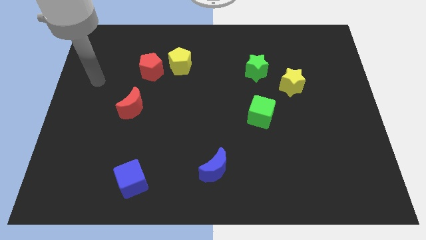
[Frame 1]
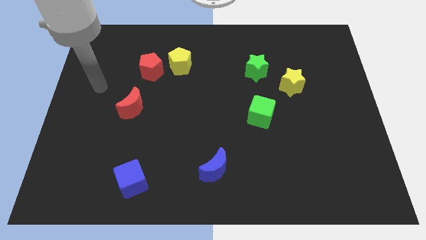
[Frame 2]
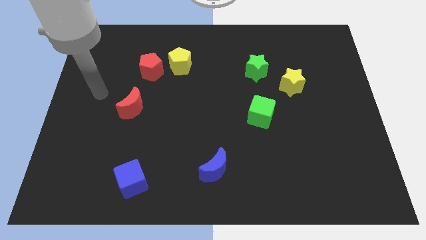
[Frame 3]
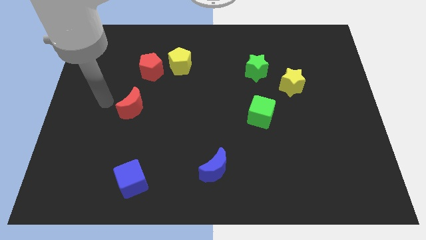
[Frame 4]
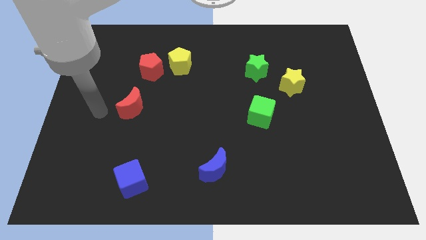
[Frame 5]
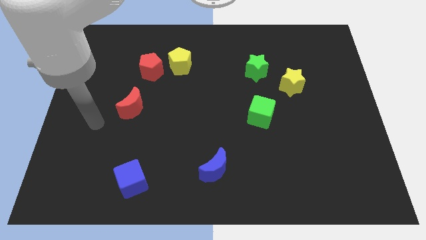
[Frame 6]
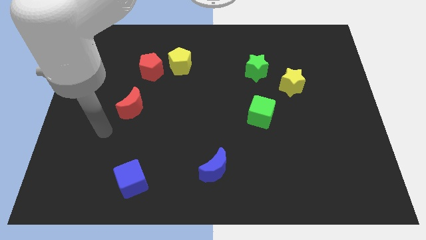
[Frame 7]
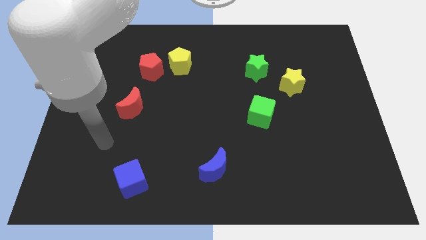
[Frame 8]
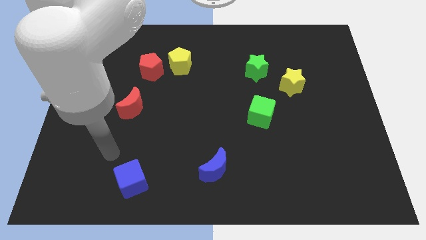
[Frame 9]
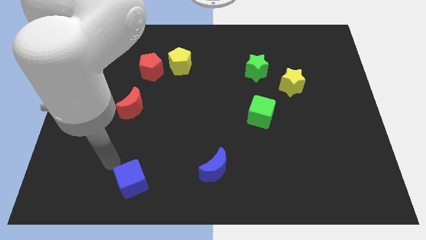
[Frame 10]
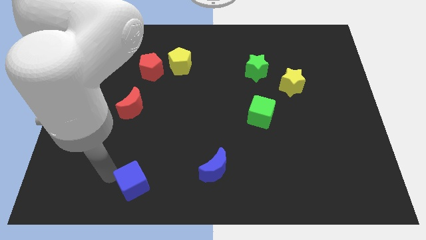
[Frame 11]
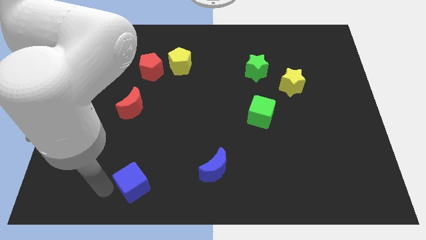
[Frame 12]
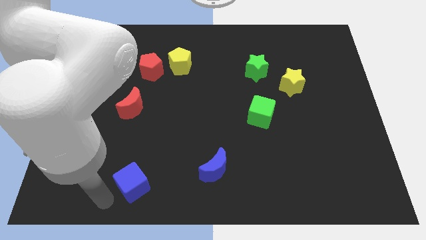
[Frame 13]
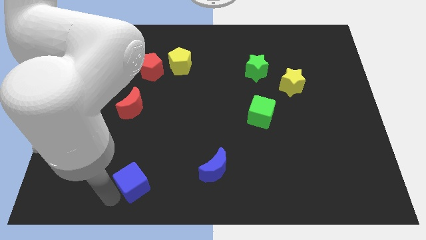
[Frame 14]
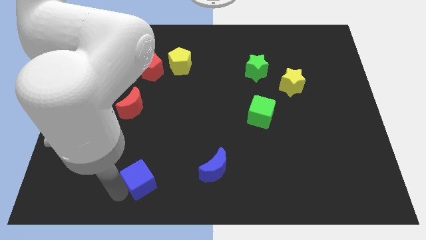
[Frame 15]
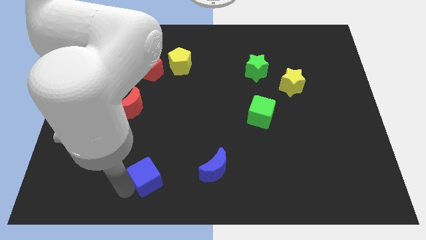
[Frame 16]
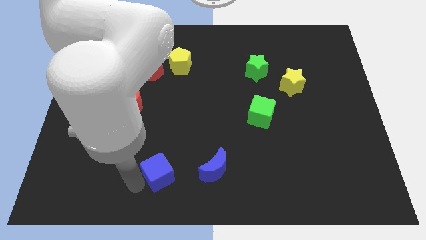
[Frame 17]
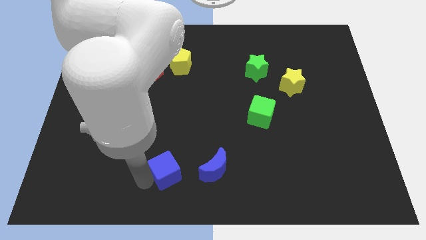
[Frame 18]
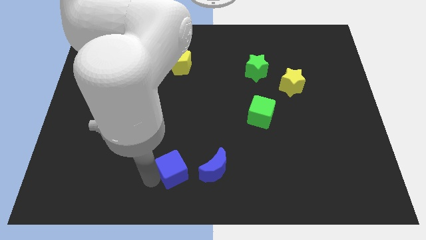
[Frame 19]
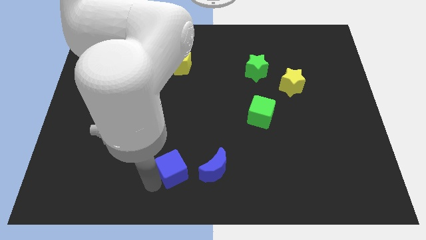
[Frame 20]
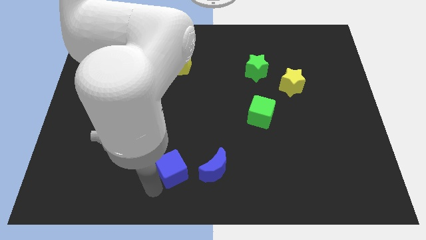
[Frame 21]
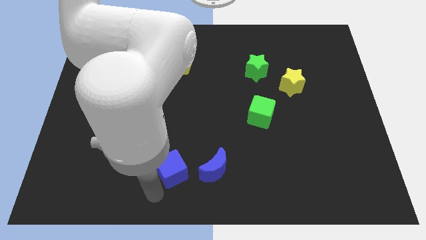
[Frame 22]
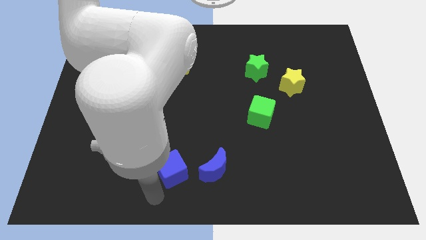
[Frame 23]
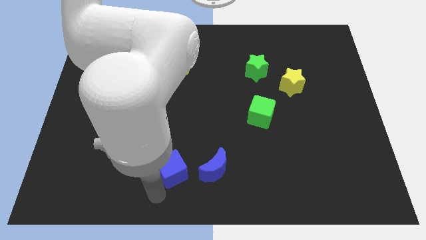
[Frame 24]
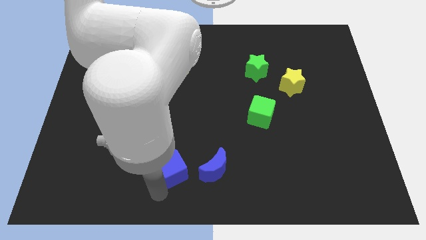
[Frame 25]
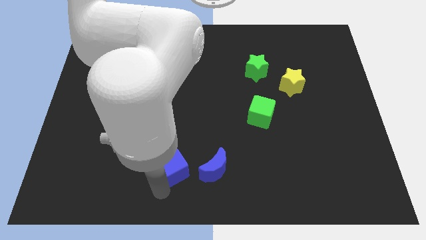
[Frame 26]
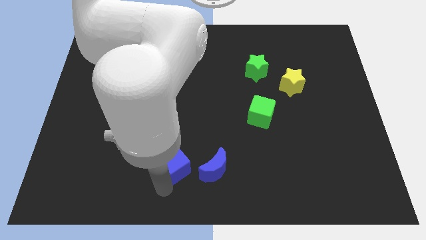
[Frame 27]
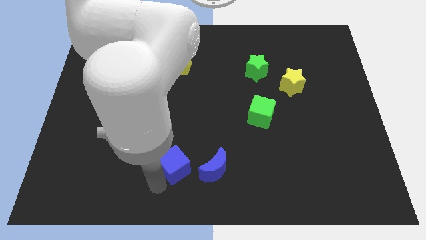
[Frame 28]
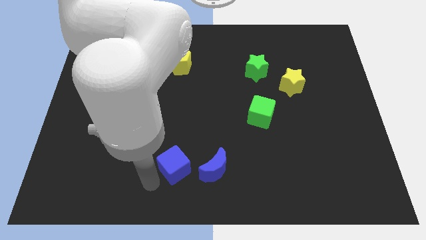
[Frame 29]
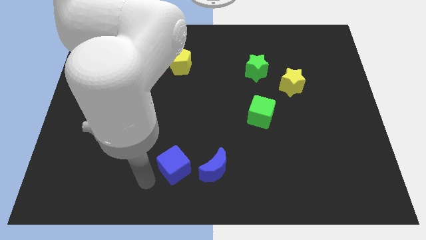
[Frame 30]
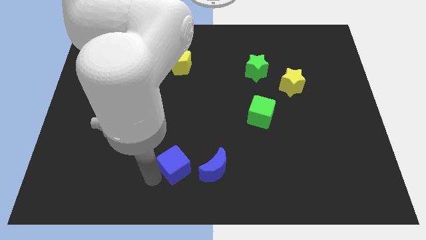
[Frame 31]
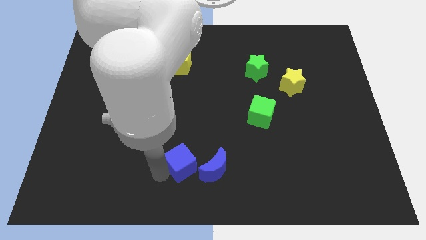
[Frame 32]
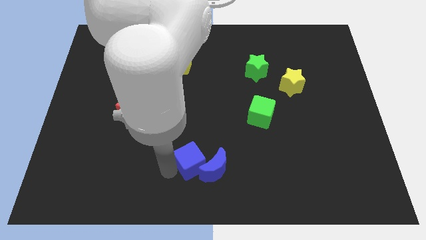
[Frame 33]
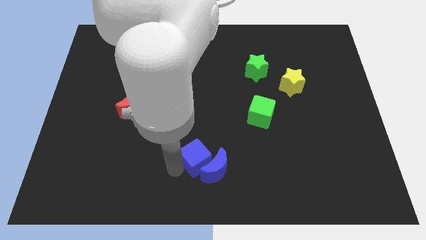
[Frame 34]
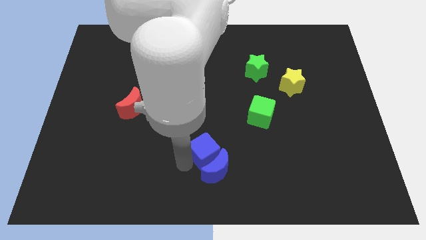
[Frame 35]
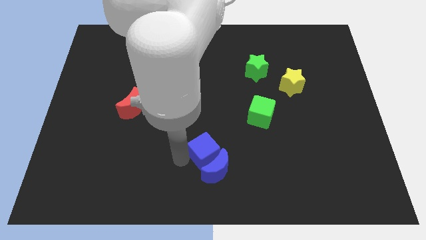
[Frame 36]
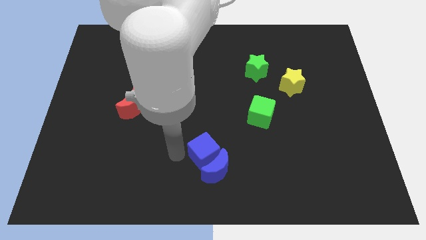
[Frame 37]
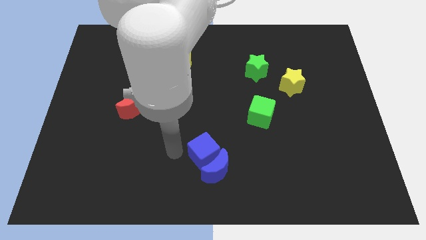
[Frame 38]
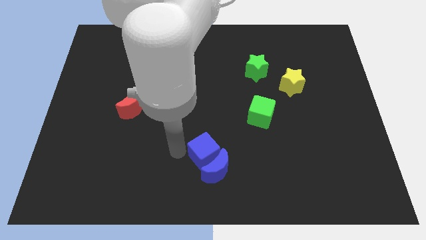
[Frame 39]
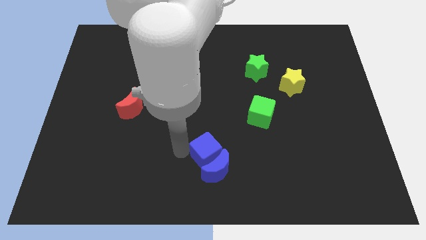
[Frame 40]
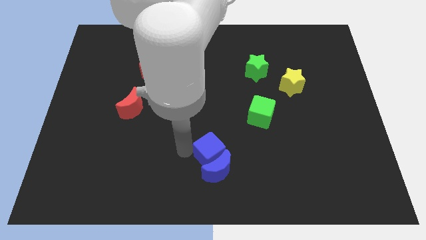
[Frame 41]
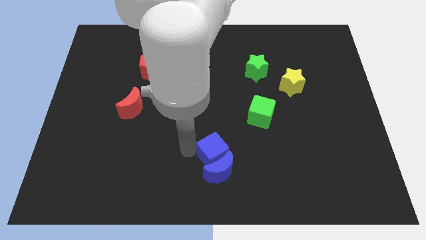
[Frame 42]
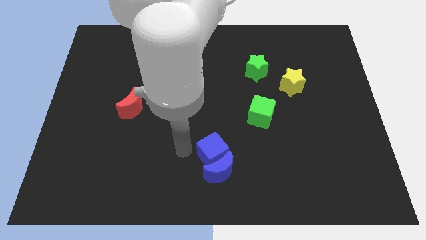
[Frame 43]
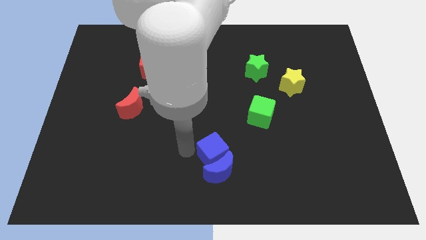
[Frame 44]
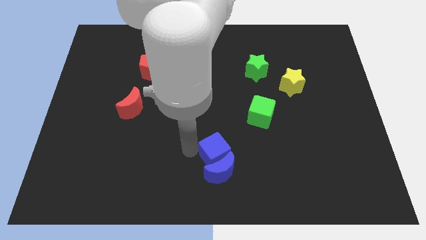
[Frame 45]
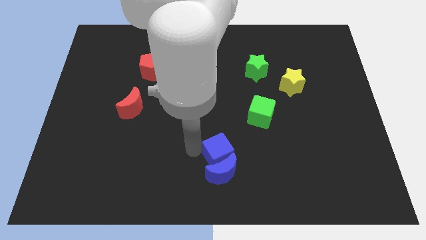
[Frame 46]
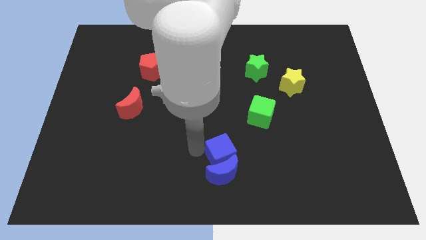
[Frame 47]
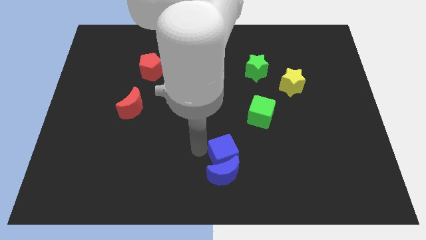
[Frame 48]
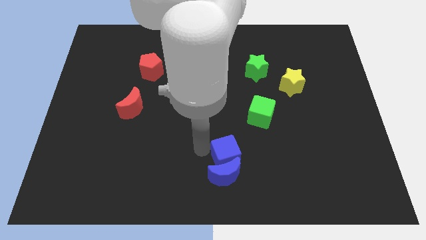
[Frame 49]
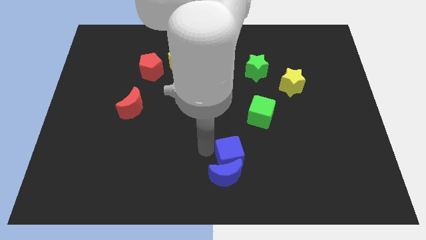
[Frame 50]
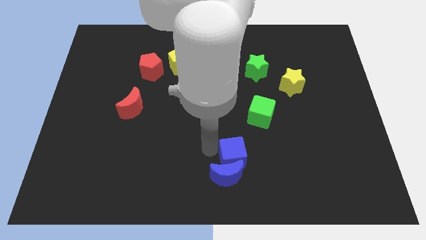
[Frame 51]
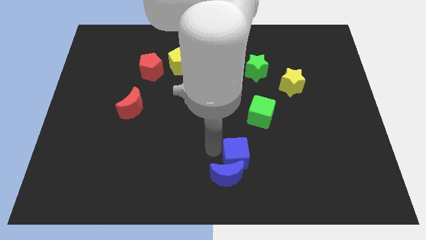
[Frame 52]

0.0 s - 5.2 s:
push the blue cube to the right

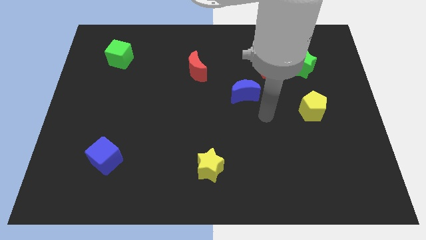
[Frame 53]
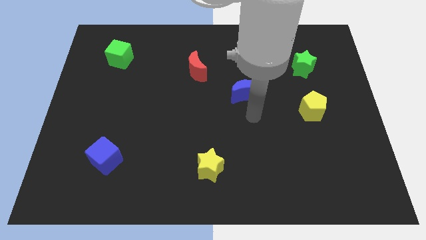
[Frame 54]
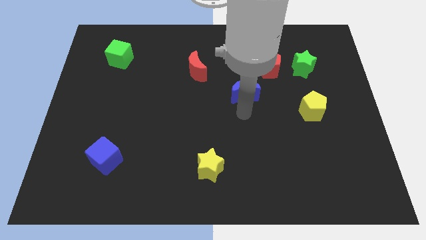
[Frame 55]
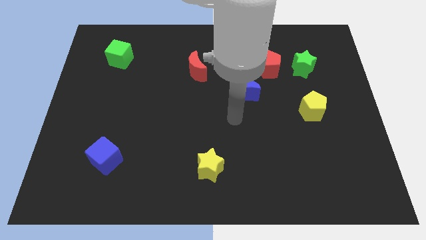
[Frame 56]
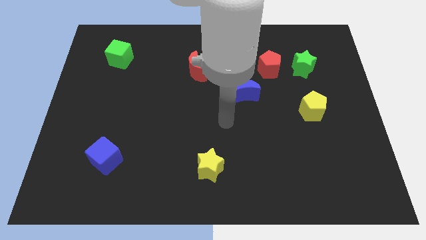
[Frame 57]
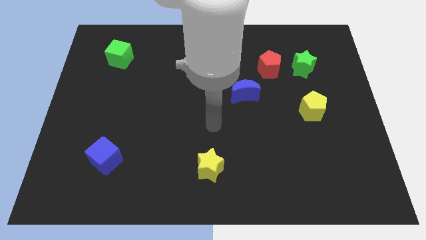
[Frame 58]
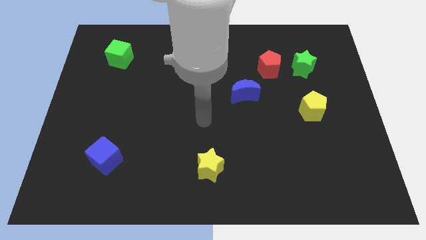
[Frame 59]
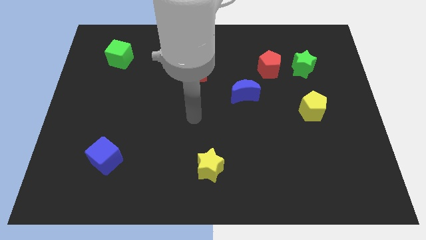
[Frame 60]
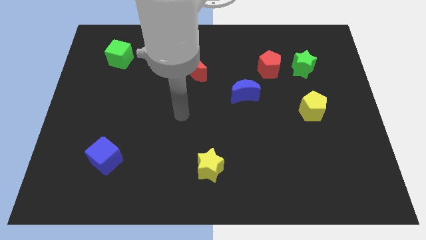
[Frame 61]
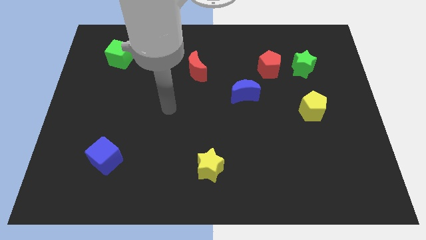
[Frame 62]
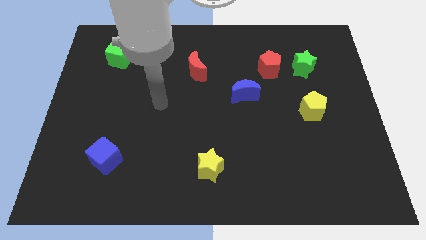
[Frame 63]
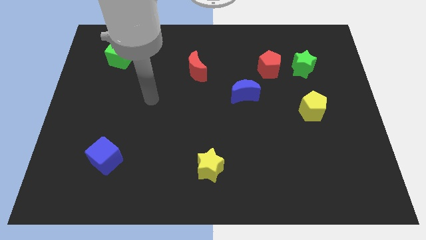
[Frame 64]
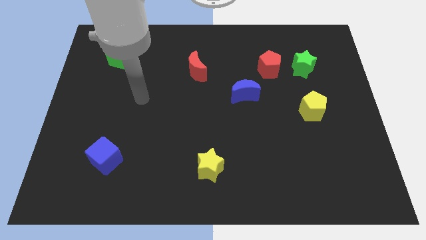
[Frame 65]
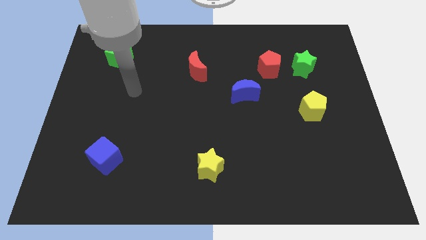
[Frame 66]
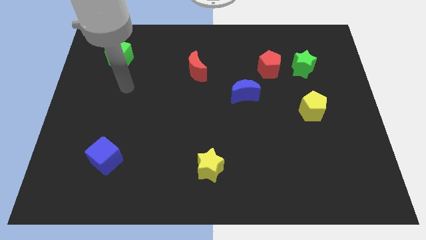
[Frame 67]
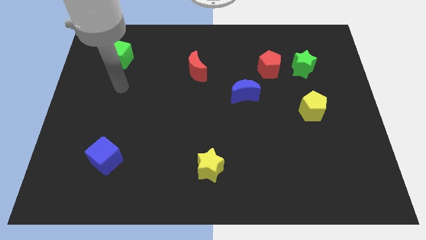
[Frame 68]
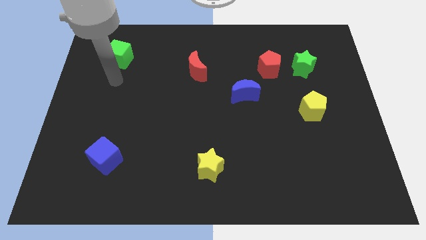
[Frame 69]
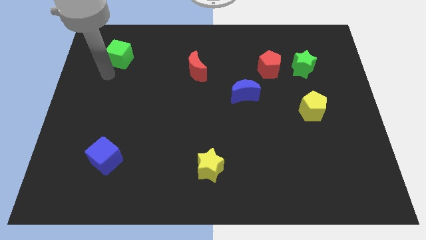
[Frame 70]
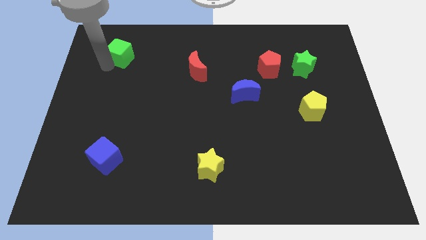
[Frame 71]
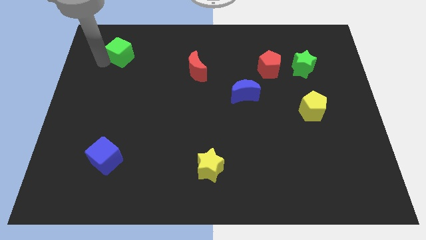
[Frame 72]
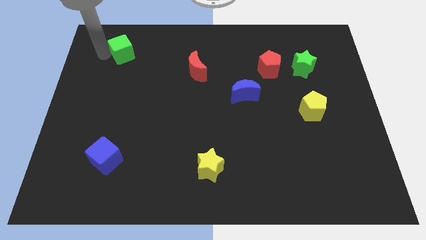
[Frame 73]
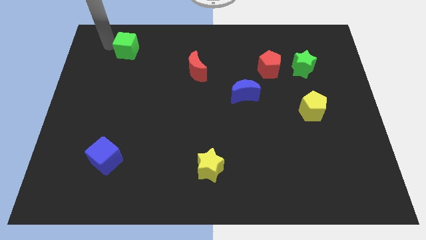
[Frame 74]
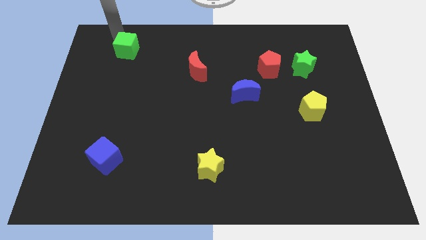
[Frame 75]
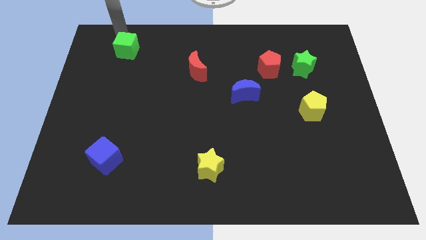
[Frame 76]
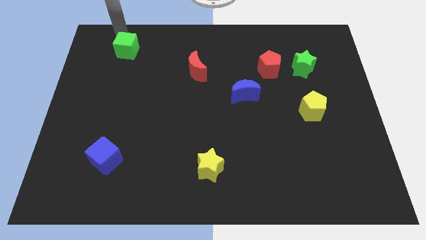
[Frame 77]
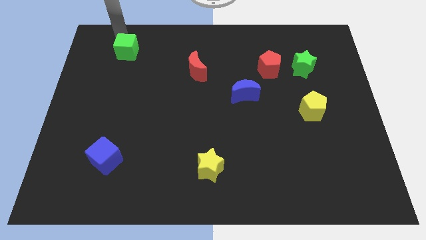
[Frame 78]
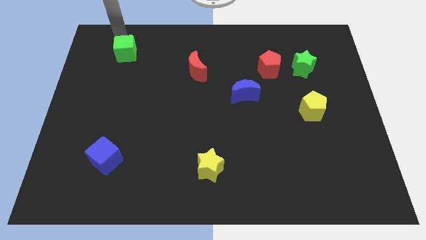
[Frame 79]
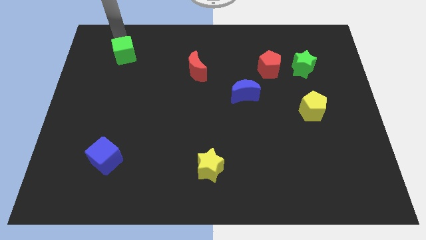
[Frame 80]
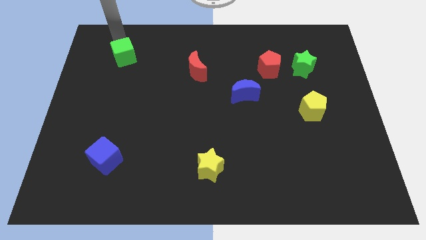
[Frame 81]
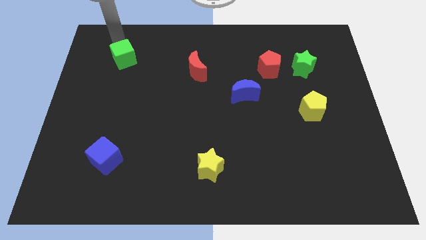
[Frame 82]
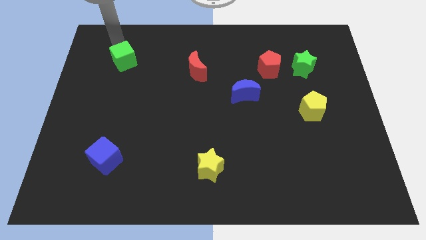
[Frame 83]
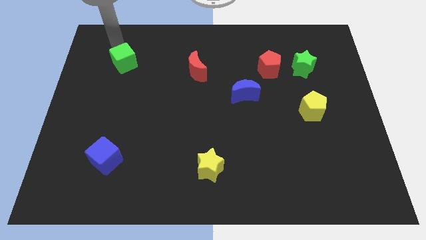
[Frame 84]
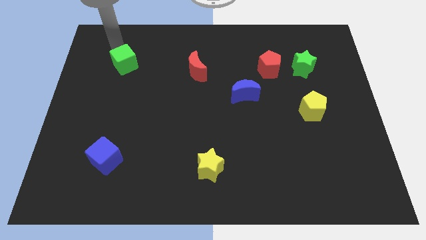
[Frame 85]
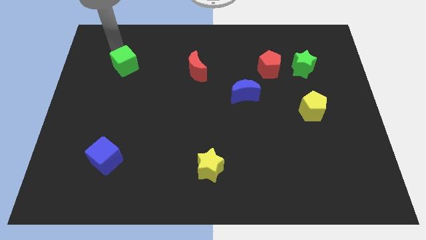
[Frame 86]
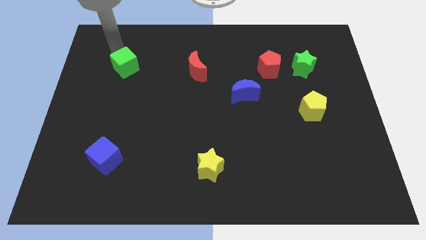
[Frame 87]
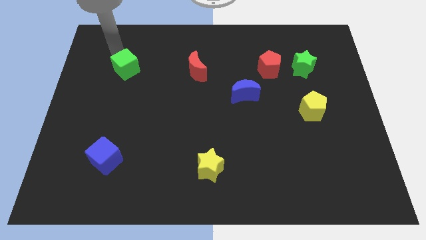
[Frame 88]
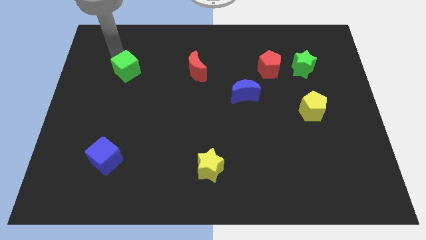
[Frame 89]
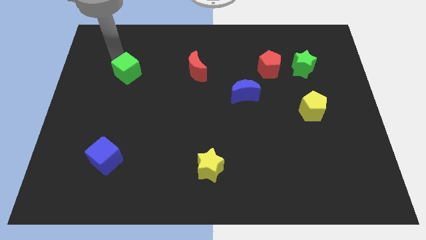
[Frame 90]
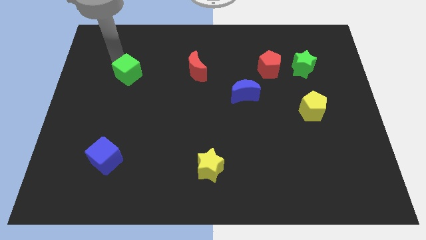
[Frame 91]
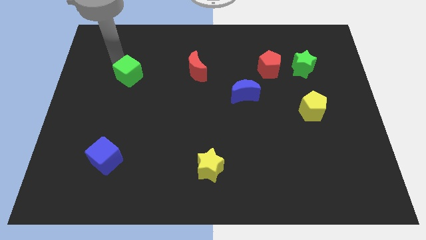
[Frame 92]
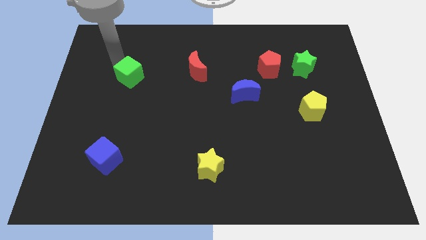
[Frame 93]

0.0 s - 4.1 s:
slightly slide the green cube down and right
